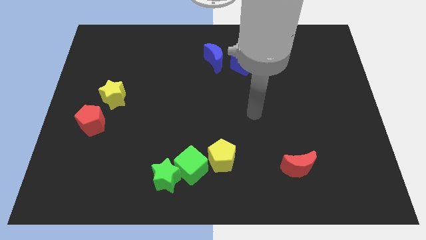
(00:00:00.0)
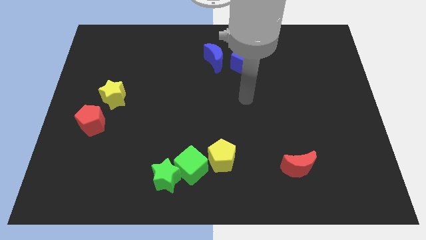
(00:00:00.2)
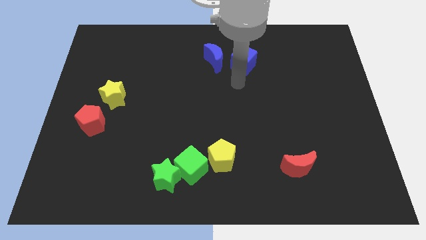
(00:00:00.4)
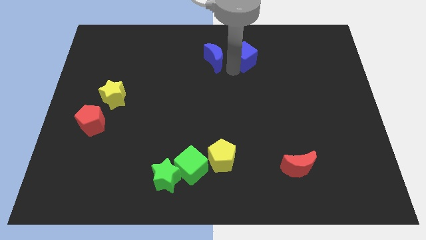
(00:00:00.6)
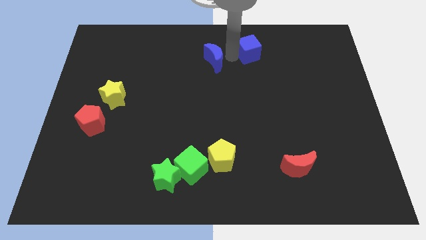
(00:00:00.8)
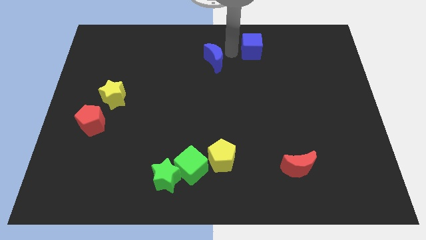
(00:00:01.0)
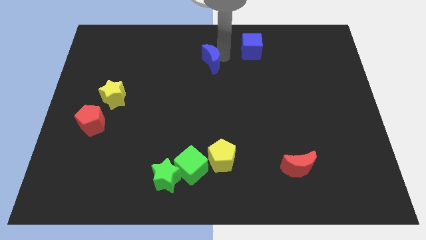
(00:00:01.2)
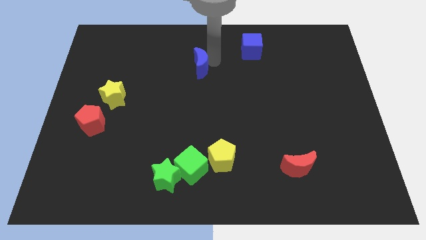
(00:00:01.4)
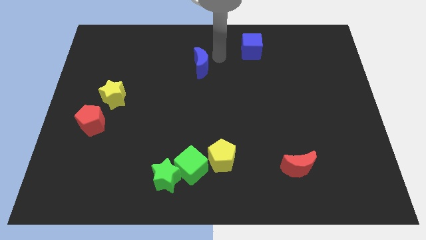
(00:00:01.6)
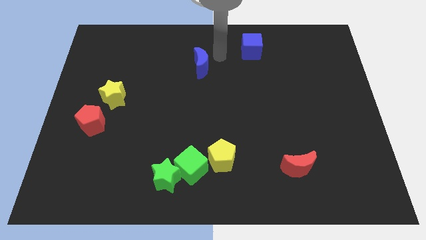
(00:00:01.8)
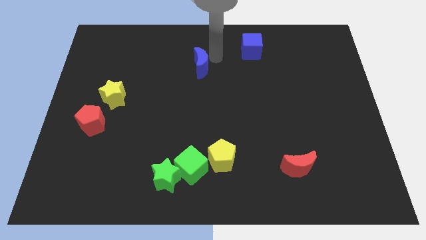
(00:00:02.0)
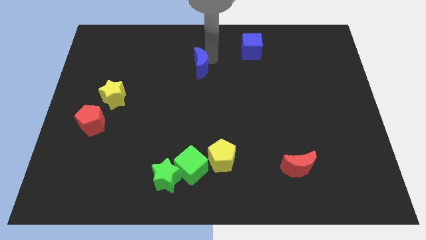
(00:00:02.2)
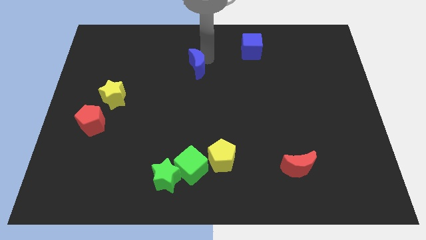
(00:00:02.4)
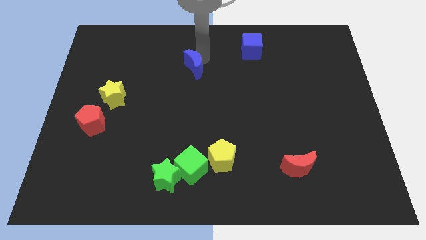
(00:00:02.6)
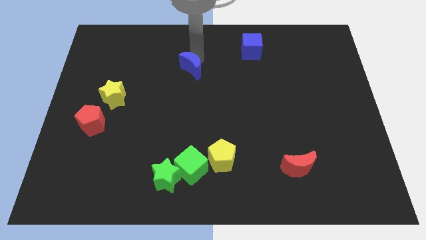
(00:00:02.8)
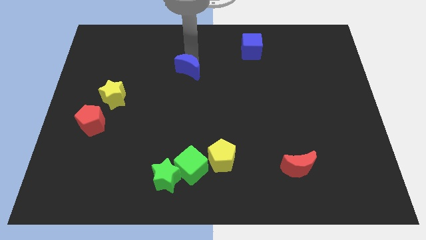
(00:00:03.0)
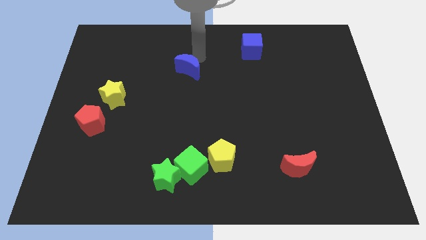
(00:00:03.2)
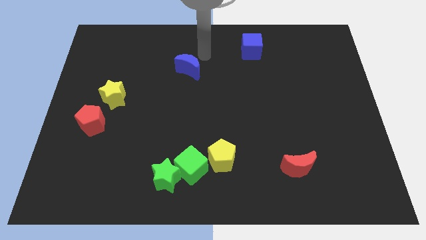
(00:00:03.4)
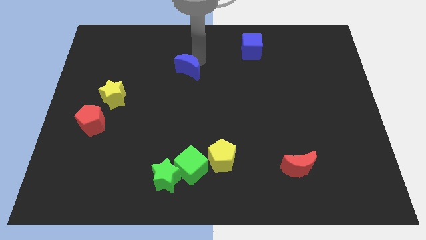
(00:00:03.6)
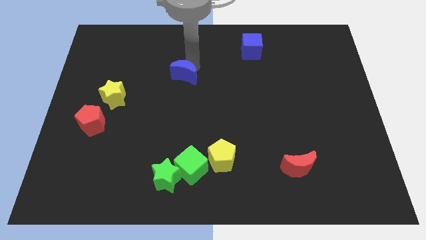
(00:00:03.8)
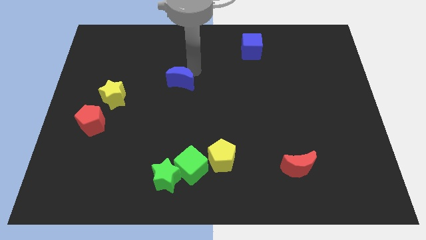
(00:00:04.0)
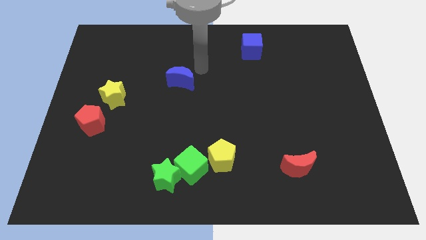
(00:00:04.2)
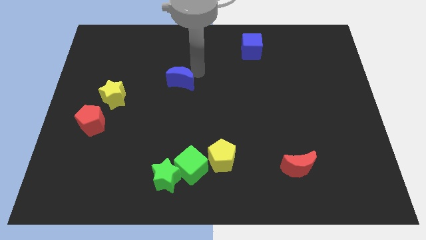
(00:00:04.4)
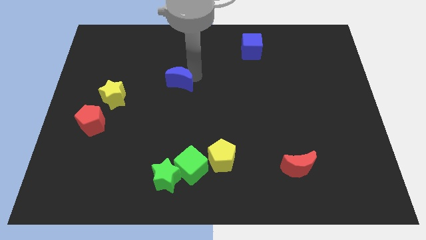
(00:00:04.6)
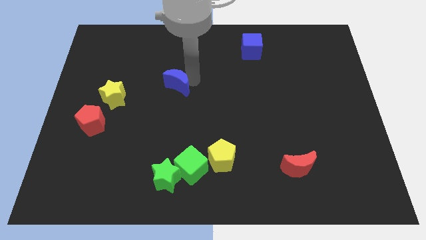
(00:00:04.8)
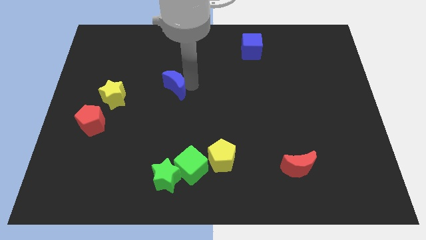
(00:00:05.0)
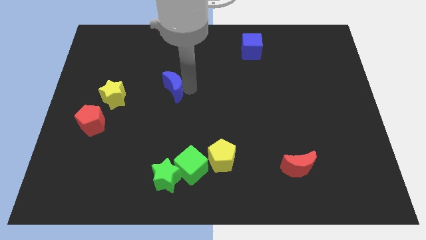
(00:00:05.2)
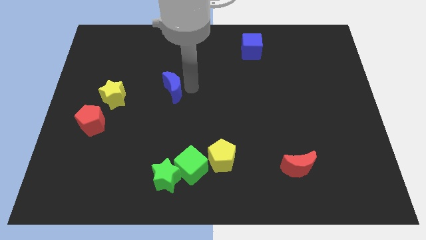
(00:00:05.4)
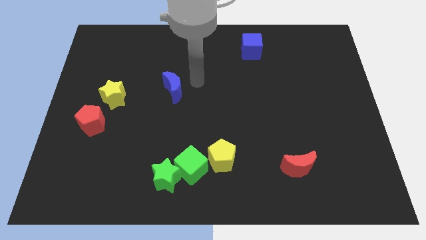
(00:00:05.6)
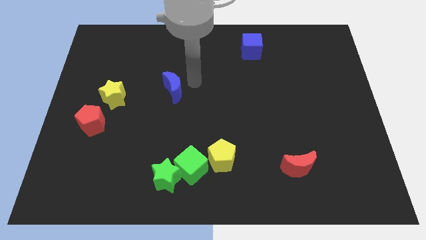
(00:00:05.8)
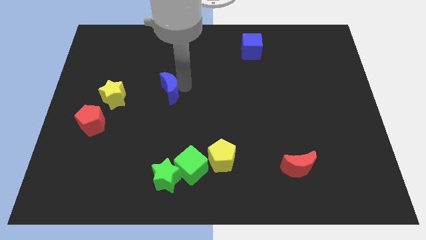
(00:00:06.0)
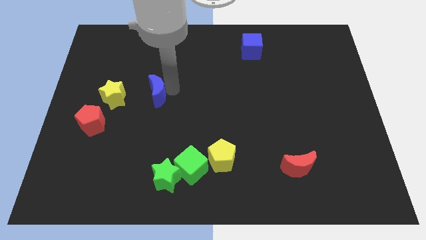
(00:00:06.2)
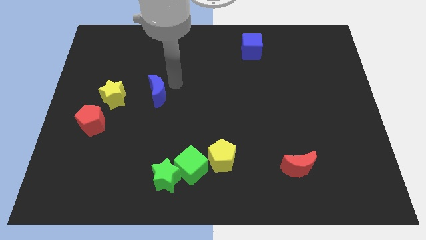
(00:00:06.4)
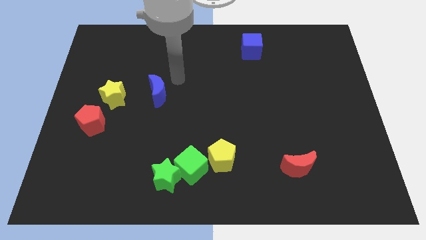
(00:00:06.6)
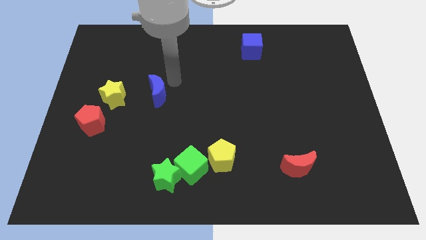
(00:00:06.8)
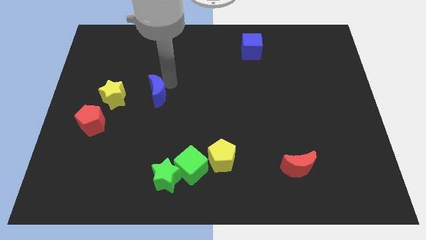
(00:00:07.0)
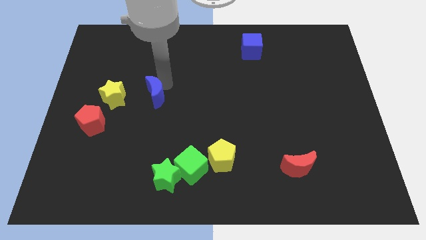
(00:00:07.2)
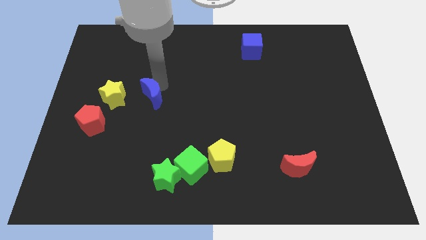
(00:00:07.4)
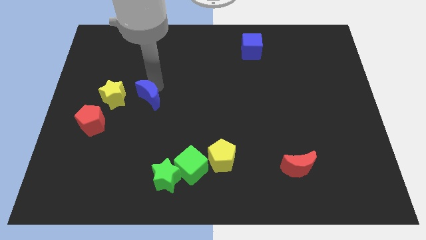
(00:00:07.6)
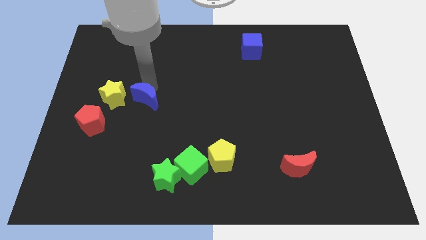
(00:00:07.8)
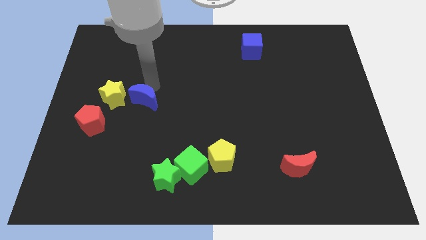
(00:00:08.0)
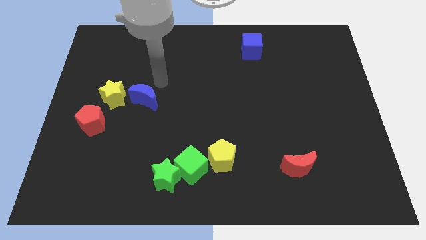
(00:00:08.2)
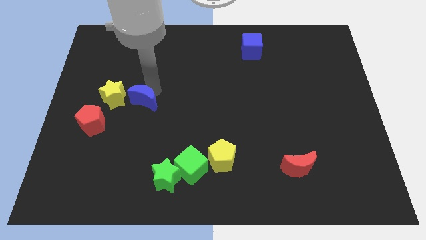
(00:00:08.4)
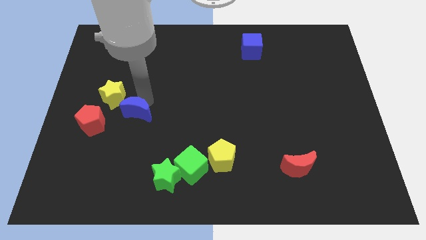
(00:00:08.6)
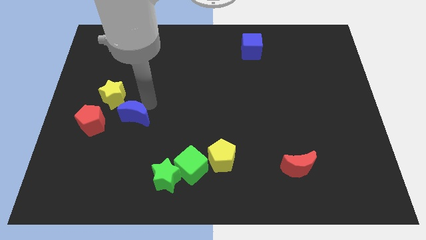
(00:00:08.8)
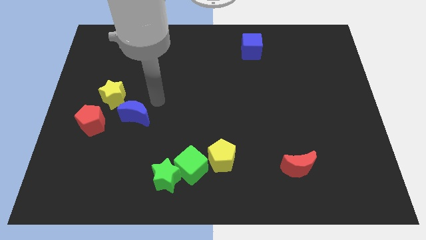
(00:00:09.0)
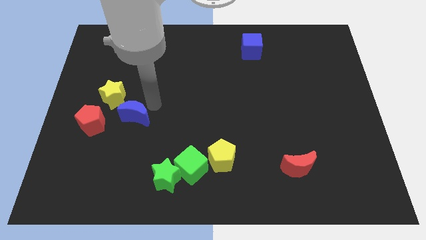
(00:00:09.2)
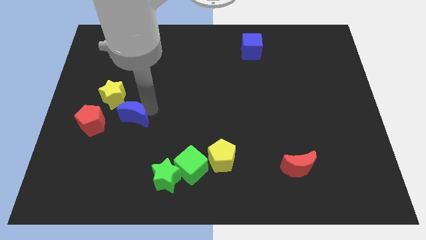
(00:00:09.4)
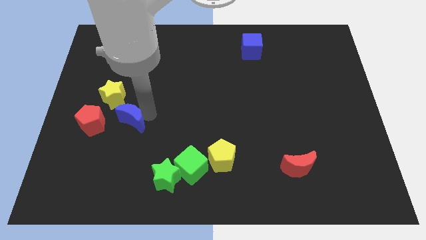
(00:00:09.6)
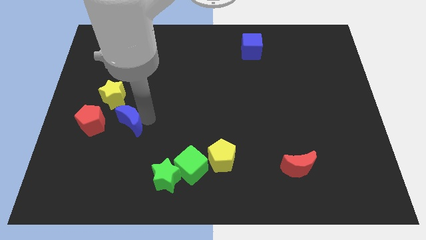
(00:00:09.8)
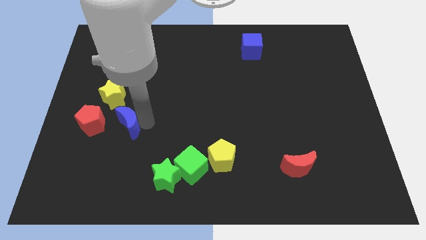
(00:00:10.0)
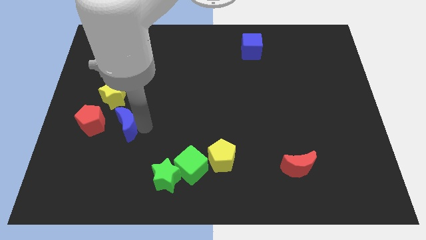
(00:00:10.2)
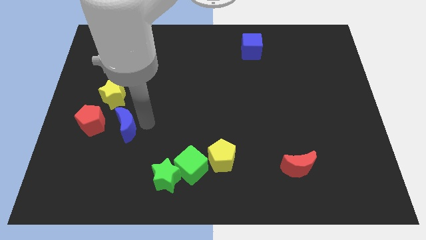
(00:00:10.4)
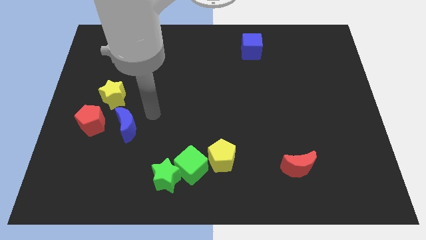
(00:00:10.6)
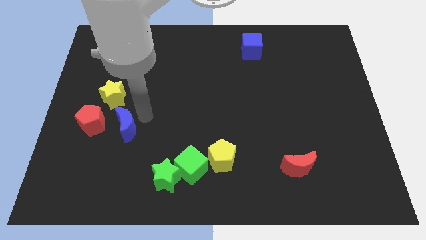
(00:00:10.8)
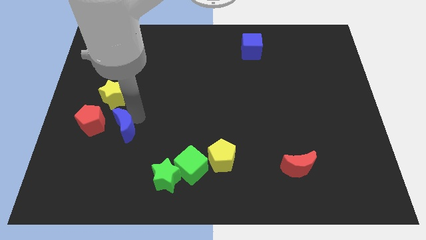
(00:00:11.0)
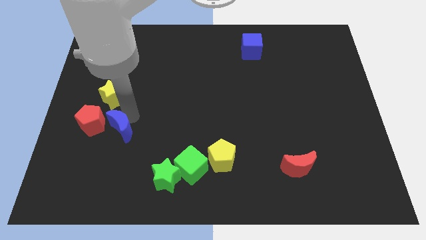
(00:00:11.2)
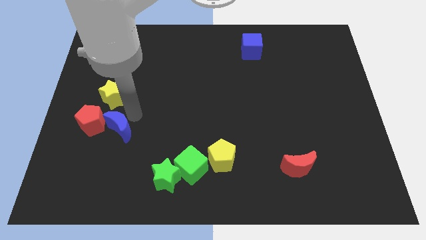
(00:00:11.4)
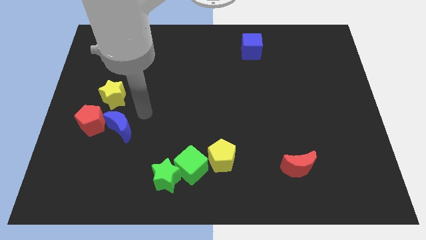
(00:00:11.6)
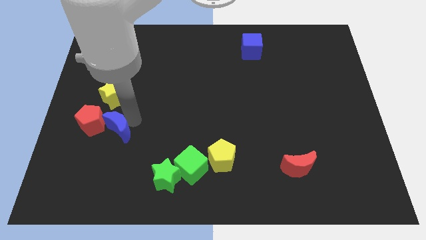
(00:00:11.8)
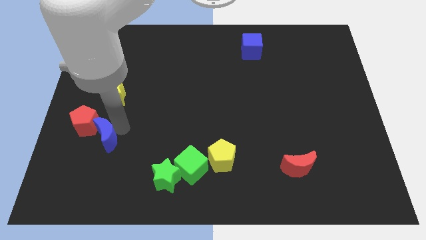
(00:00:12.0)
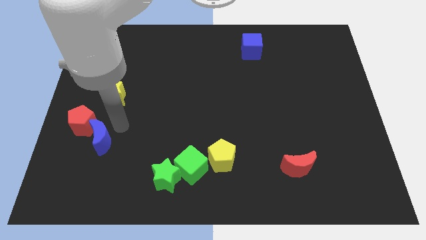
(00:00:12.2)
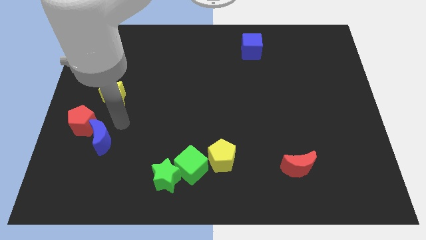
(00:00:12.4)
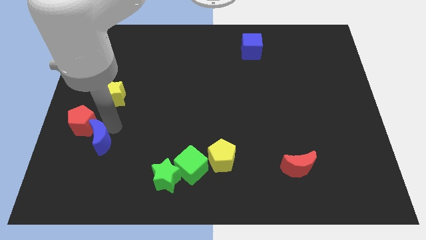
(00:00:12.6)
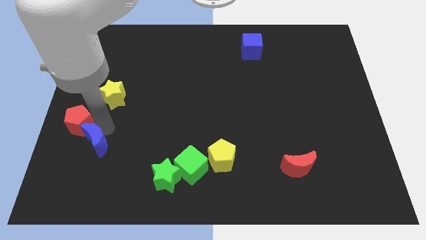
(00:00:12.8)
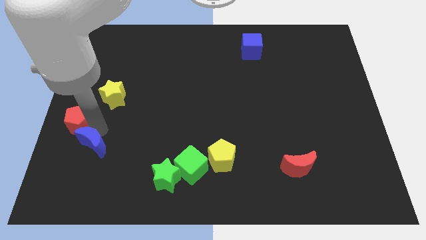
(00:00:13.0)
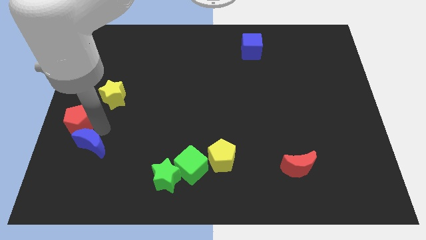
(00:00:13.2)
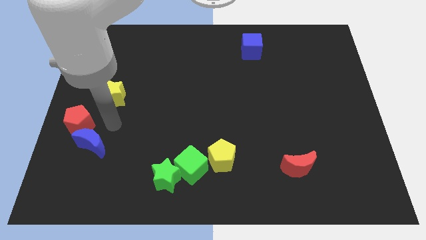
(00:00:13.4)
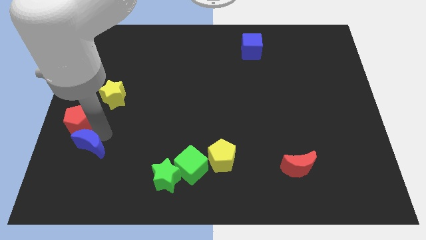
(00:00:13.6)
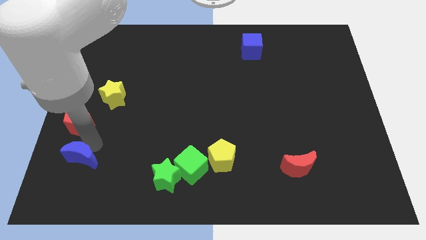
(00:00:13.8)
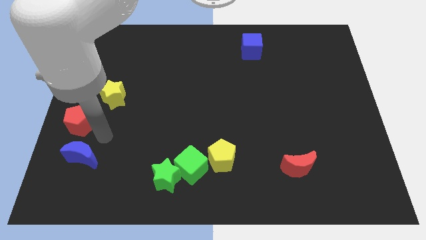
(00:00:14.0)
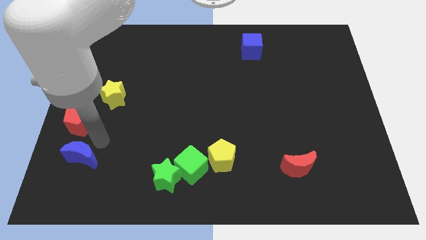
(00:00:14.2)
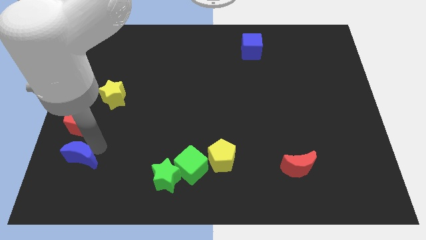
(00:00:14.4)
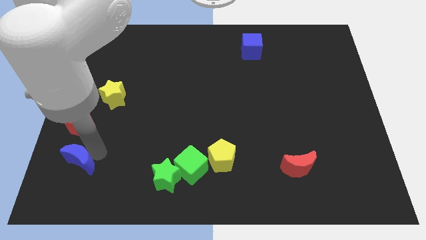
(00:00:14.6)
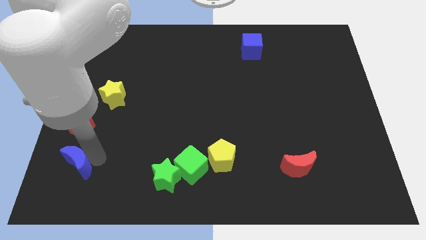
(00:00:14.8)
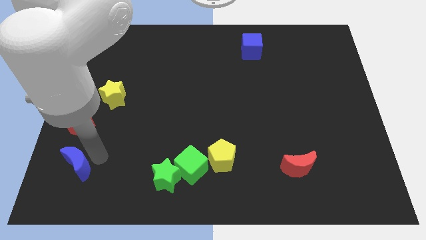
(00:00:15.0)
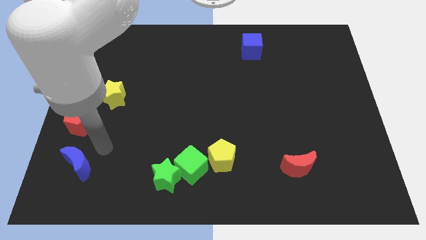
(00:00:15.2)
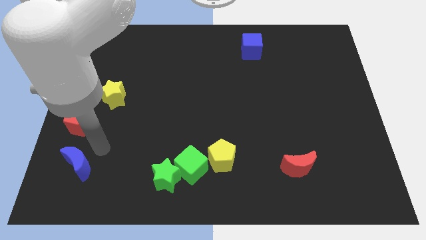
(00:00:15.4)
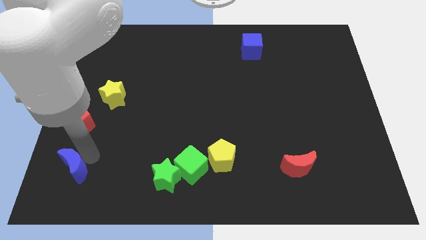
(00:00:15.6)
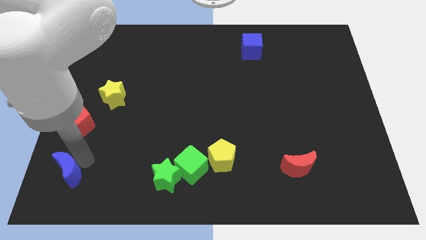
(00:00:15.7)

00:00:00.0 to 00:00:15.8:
slide the blue moon to the bottom left
